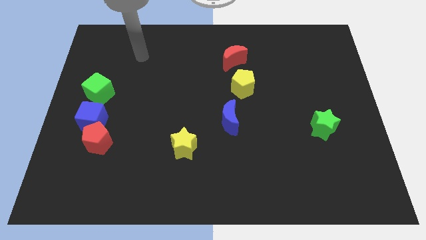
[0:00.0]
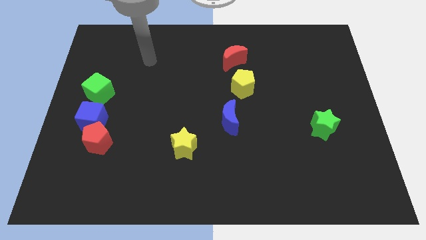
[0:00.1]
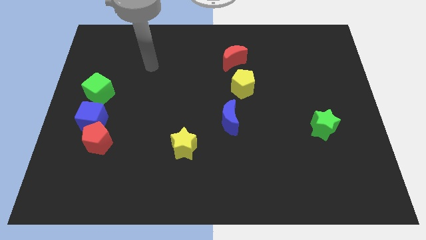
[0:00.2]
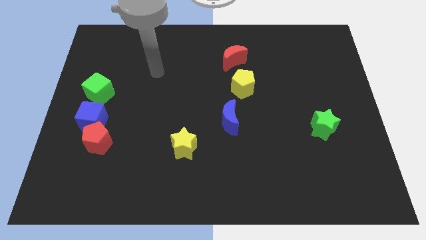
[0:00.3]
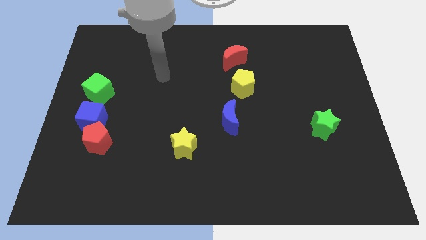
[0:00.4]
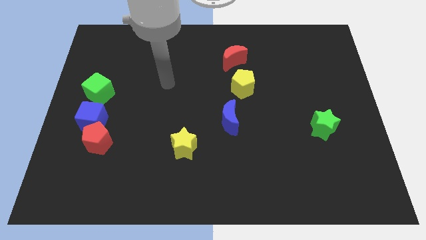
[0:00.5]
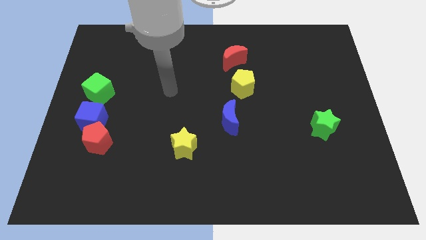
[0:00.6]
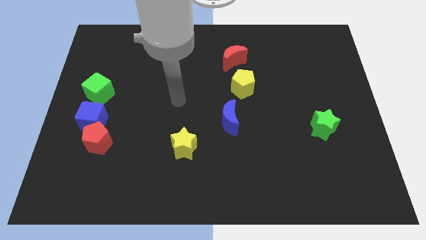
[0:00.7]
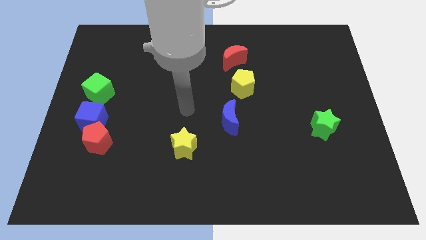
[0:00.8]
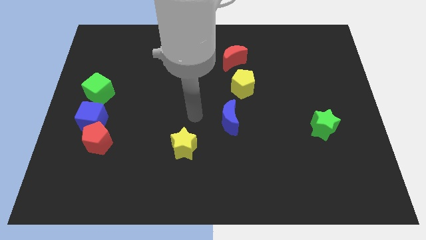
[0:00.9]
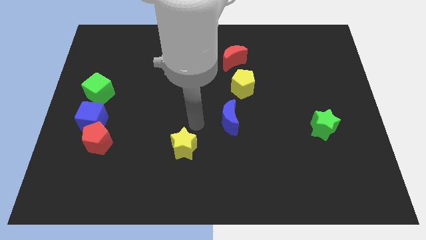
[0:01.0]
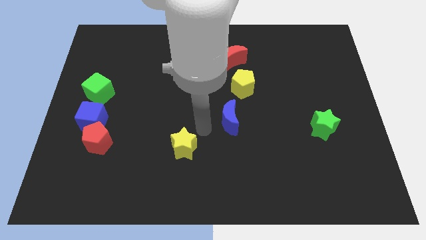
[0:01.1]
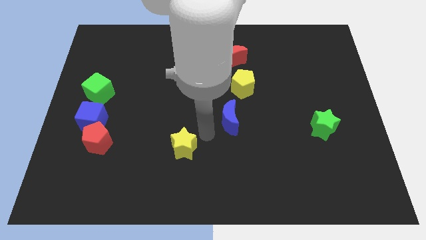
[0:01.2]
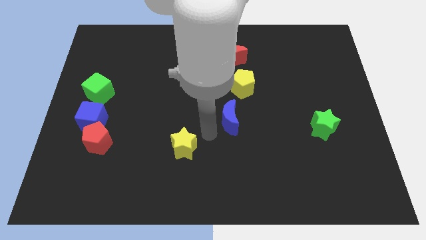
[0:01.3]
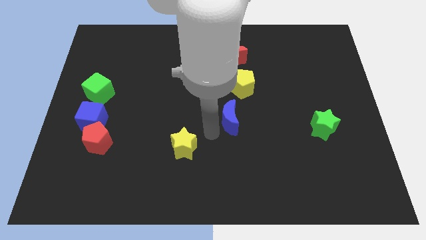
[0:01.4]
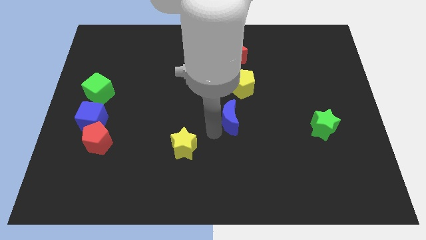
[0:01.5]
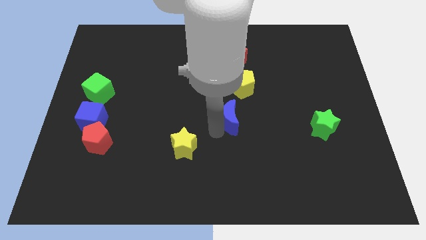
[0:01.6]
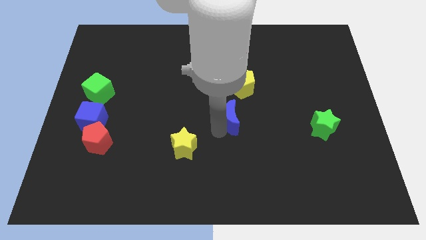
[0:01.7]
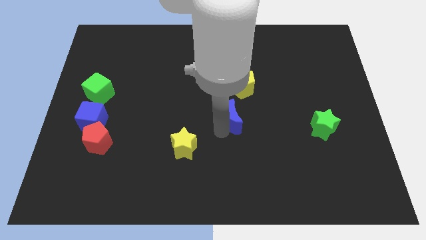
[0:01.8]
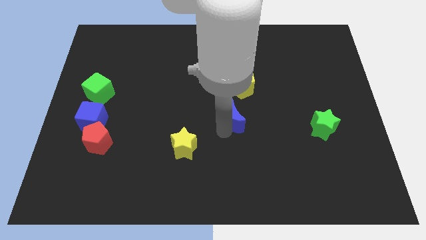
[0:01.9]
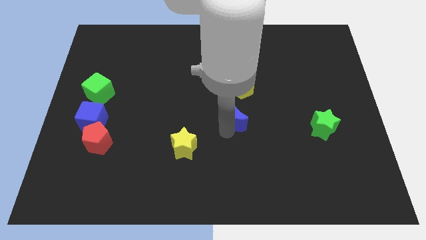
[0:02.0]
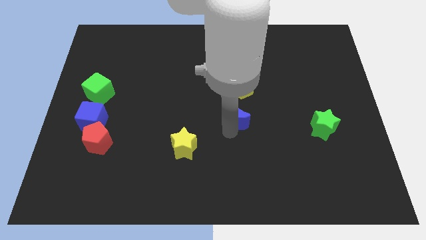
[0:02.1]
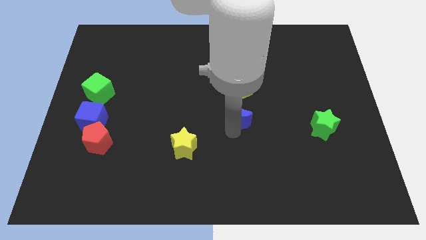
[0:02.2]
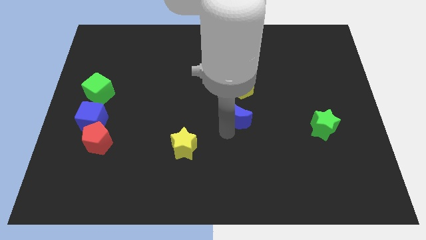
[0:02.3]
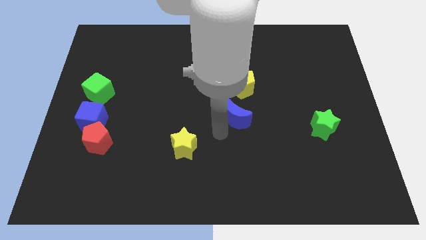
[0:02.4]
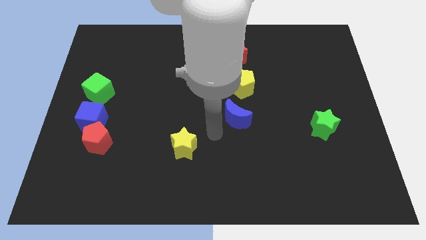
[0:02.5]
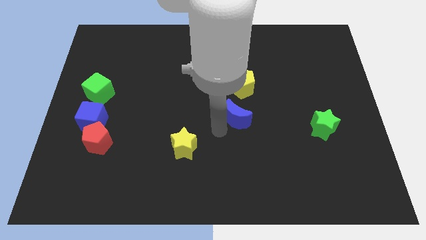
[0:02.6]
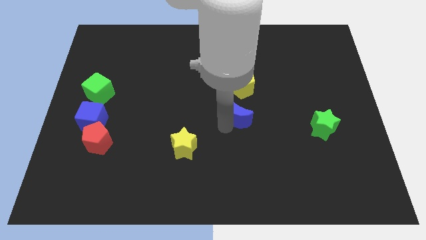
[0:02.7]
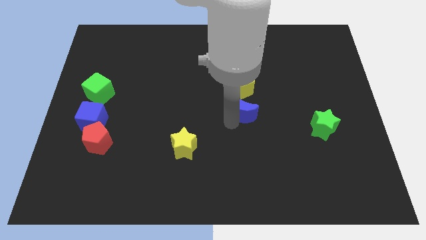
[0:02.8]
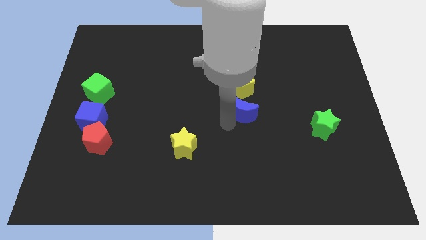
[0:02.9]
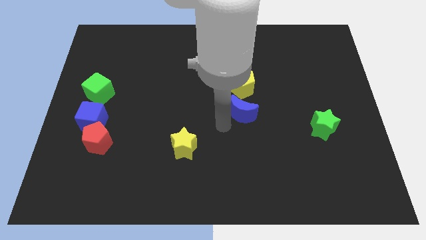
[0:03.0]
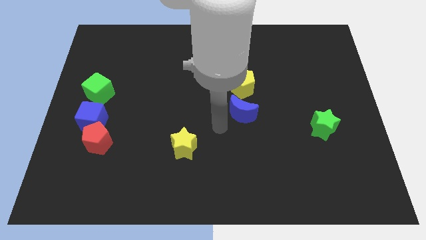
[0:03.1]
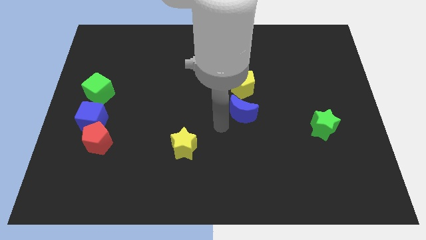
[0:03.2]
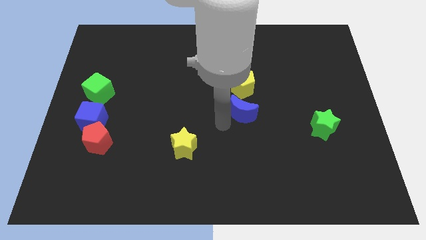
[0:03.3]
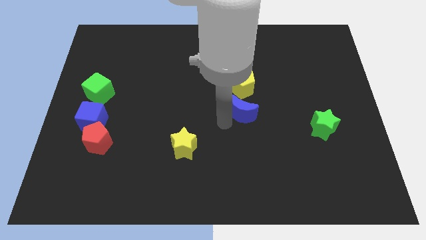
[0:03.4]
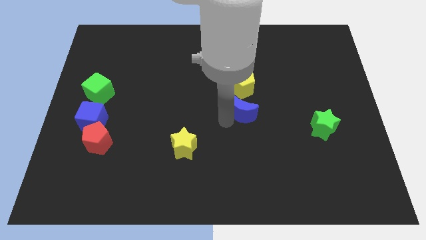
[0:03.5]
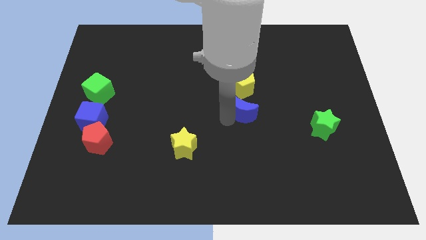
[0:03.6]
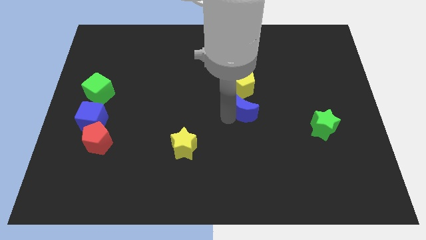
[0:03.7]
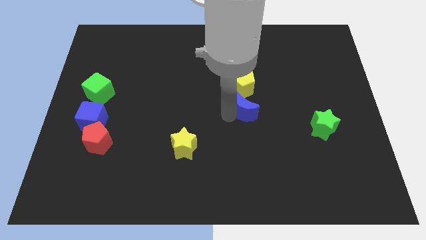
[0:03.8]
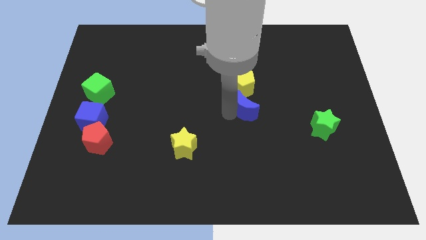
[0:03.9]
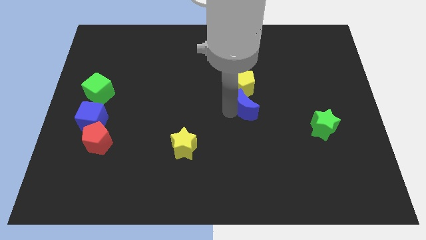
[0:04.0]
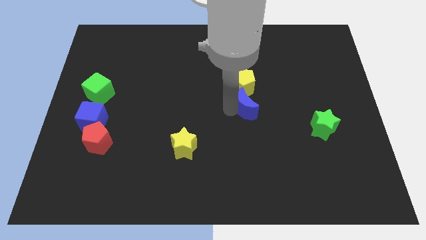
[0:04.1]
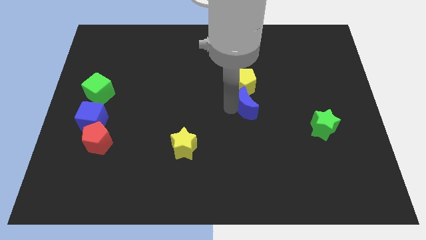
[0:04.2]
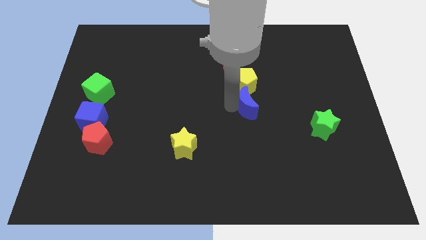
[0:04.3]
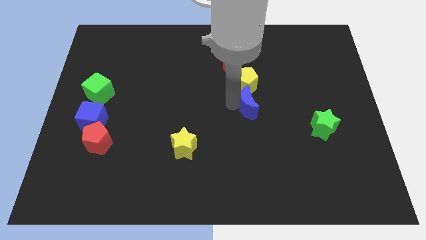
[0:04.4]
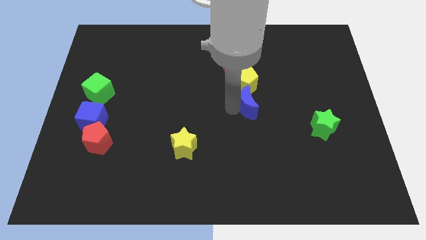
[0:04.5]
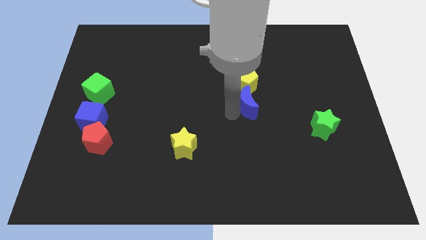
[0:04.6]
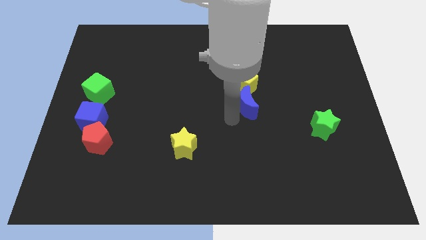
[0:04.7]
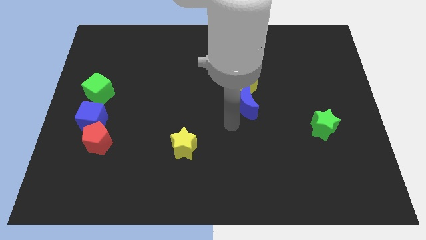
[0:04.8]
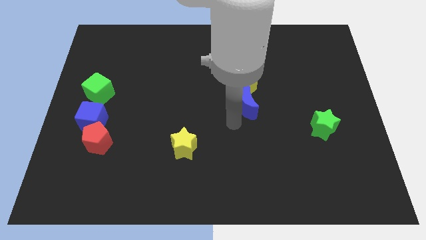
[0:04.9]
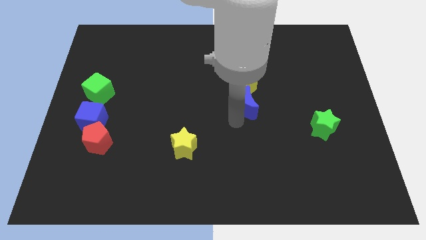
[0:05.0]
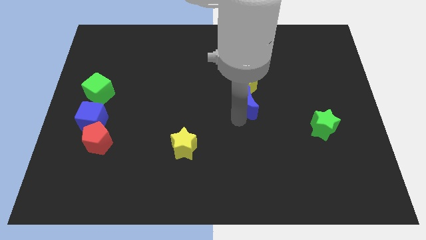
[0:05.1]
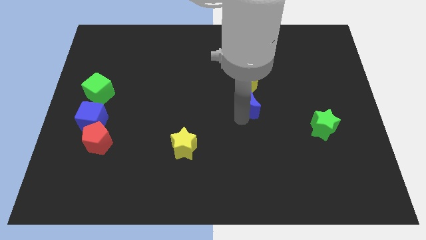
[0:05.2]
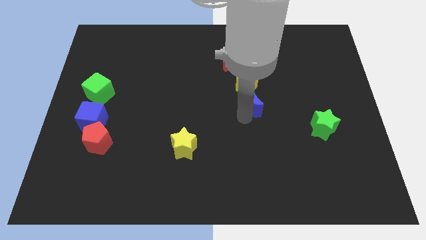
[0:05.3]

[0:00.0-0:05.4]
push the blue moon upwards and then right slightly

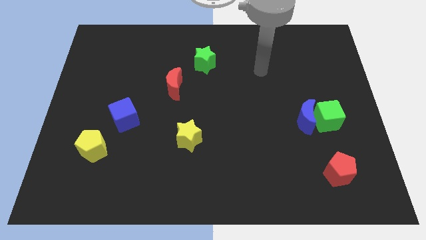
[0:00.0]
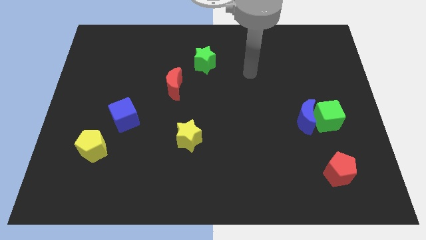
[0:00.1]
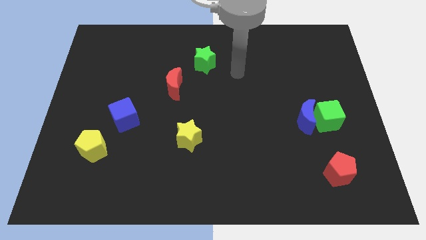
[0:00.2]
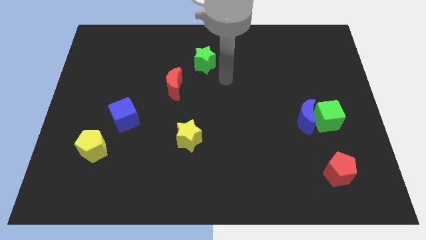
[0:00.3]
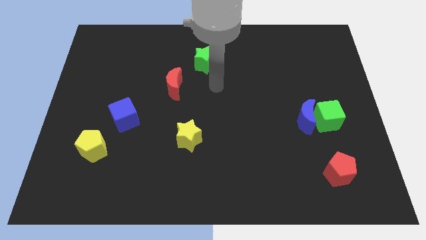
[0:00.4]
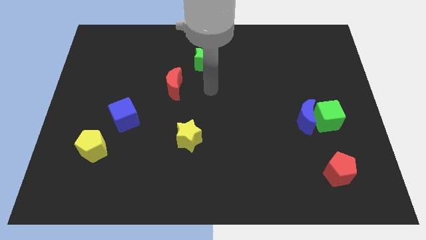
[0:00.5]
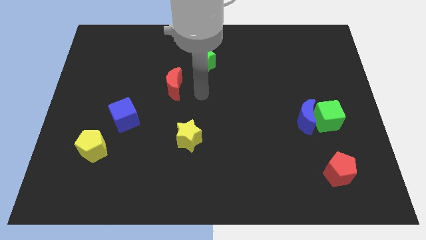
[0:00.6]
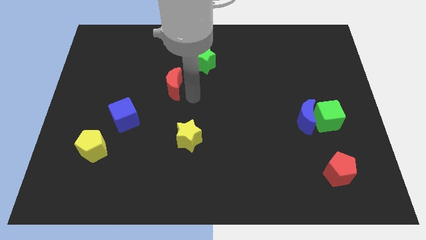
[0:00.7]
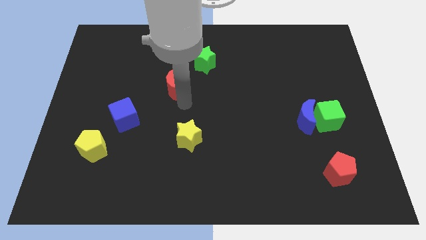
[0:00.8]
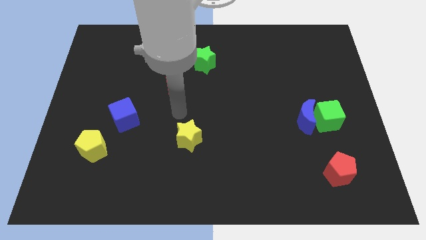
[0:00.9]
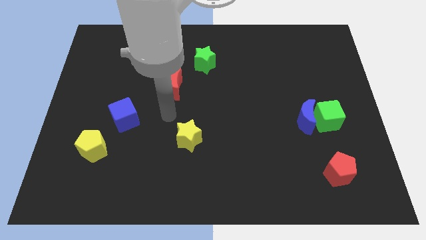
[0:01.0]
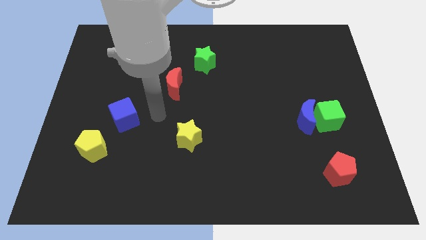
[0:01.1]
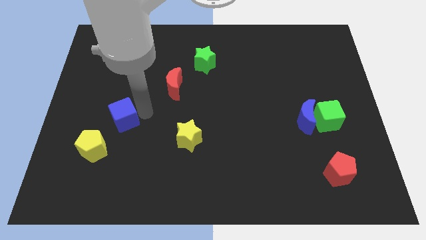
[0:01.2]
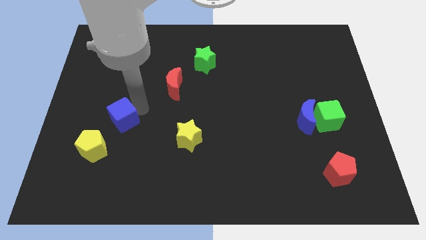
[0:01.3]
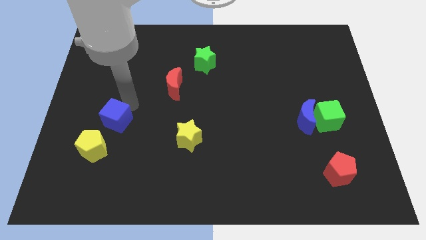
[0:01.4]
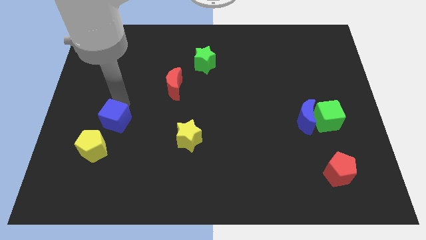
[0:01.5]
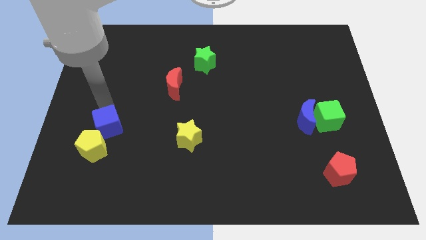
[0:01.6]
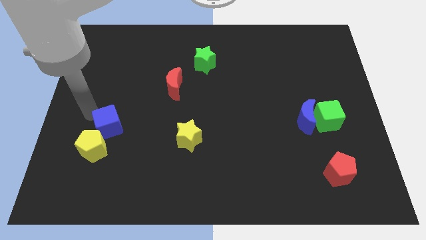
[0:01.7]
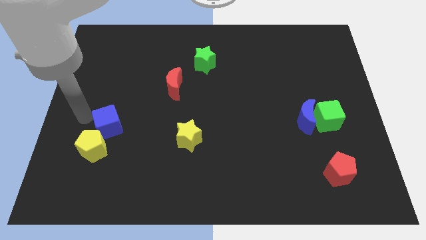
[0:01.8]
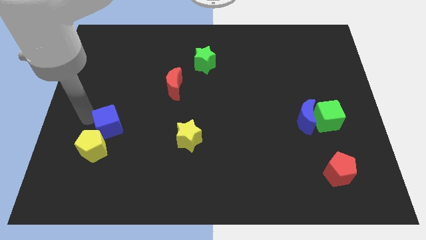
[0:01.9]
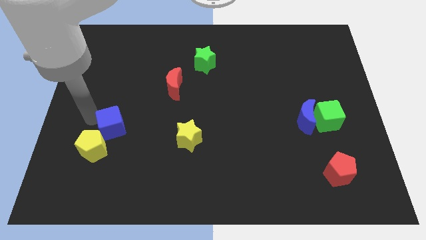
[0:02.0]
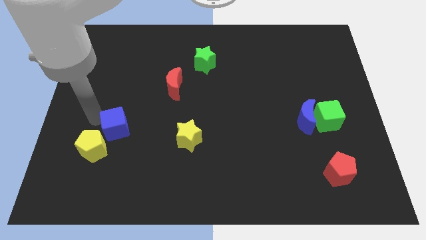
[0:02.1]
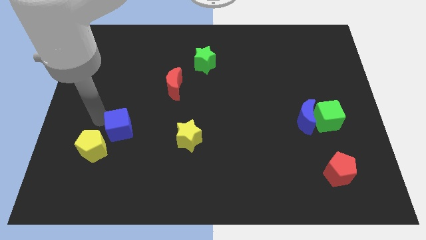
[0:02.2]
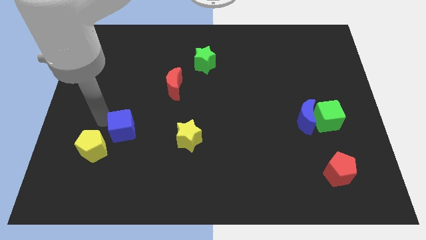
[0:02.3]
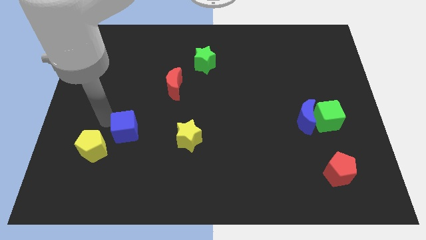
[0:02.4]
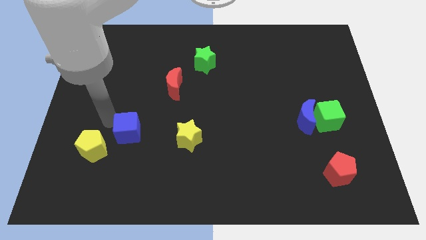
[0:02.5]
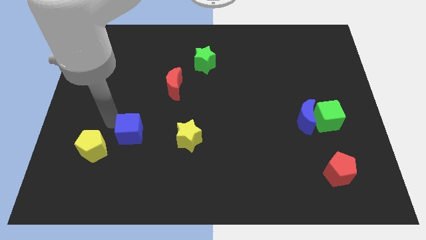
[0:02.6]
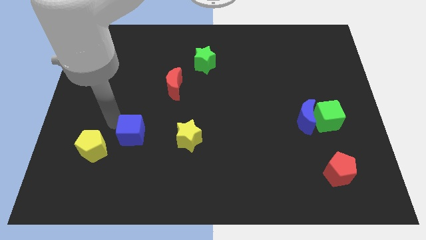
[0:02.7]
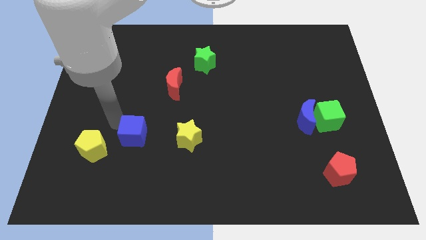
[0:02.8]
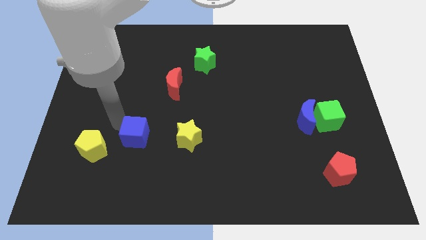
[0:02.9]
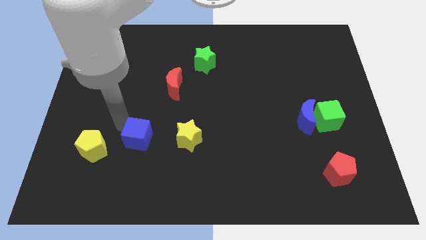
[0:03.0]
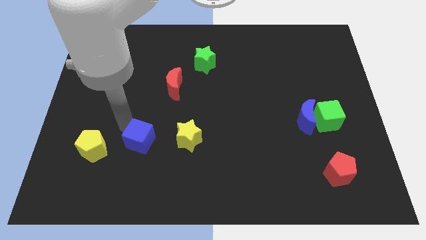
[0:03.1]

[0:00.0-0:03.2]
slightly move the blue cube down and to the right

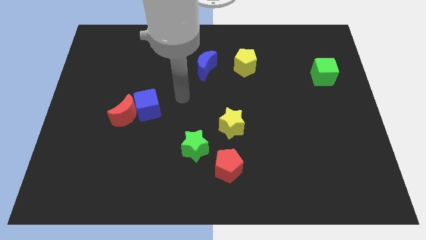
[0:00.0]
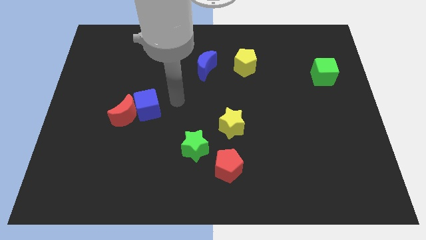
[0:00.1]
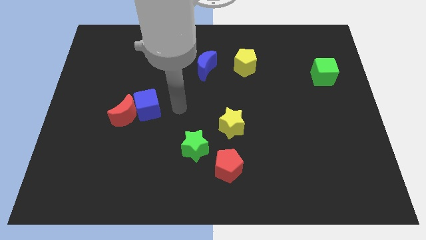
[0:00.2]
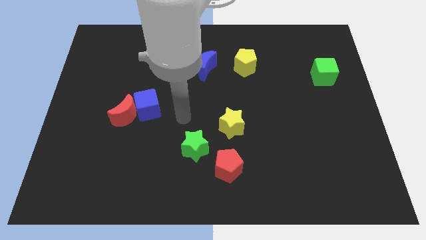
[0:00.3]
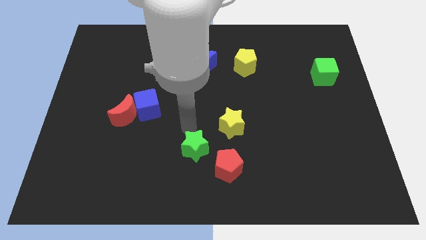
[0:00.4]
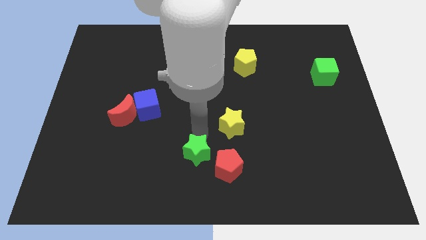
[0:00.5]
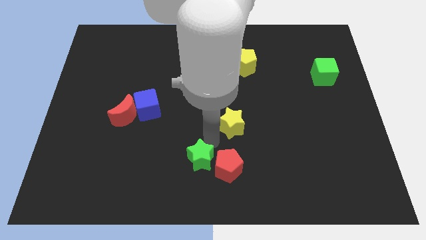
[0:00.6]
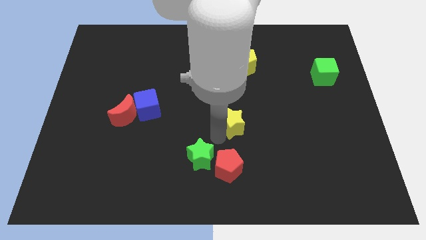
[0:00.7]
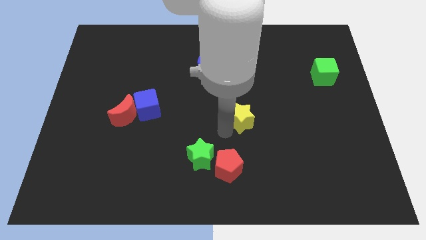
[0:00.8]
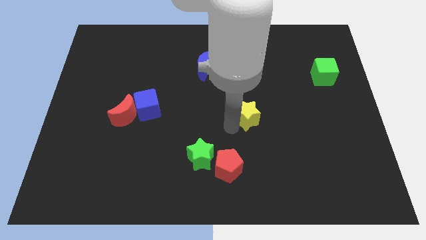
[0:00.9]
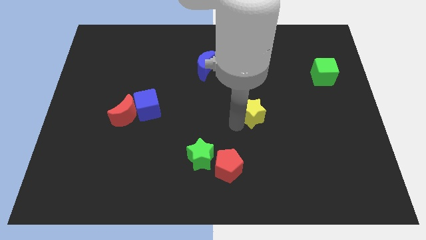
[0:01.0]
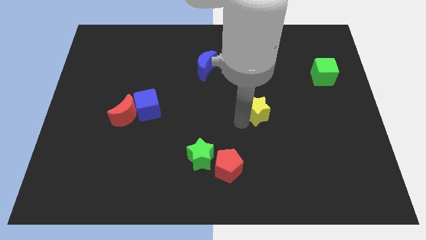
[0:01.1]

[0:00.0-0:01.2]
slide the yellow star upwards and then right somewhat
